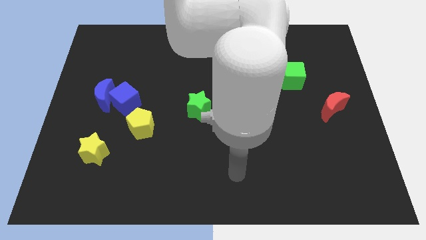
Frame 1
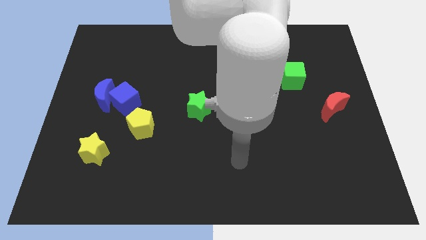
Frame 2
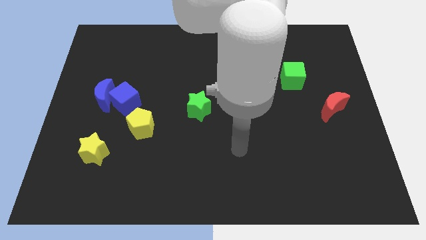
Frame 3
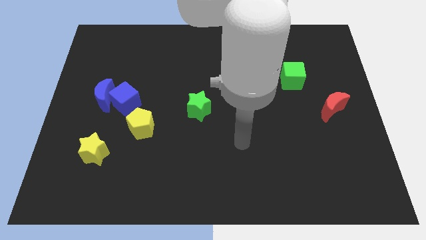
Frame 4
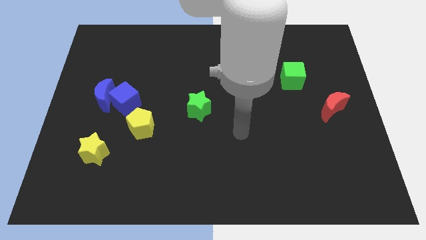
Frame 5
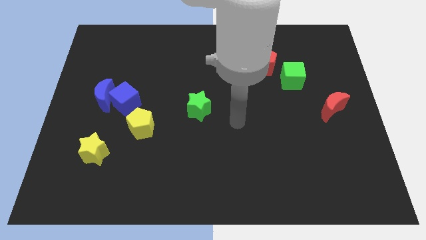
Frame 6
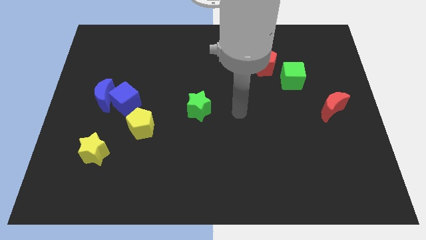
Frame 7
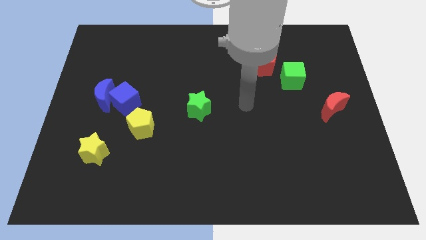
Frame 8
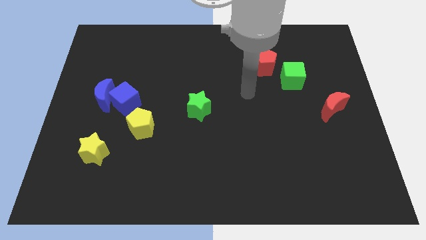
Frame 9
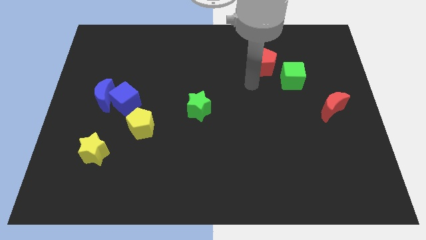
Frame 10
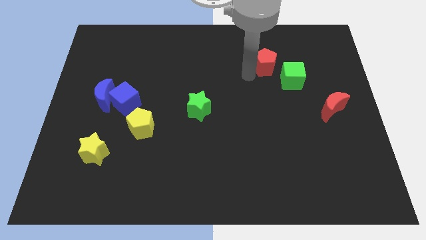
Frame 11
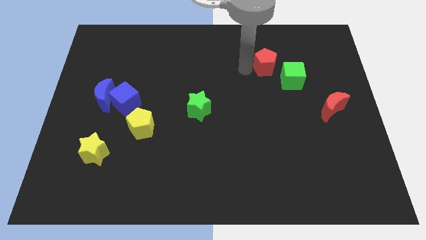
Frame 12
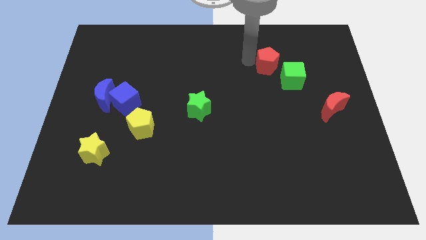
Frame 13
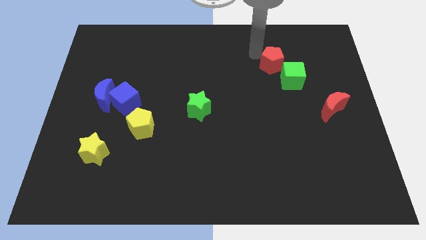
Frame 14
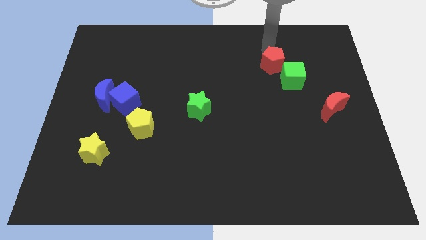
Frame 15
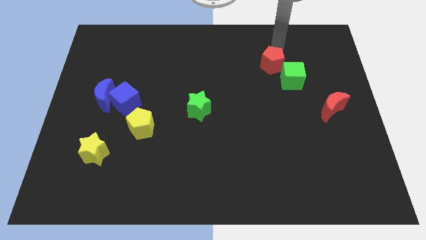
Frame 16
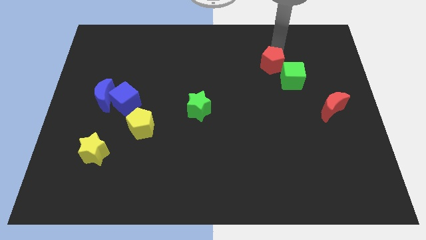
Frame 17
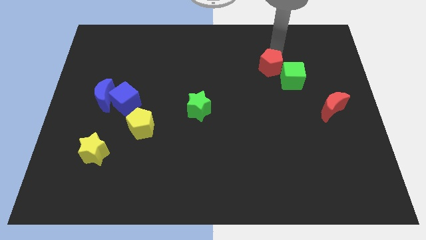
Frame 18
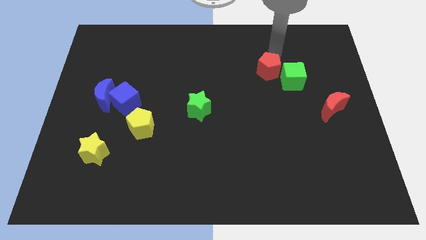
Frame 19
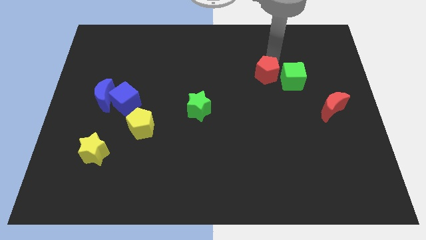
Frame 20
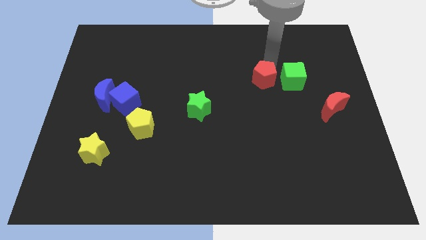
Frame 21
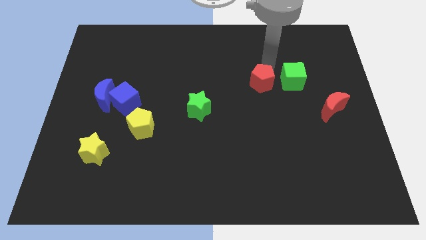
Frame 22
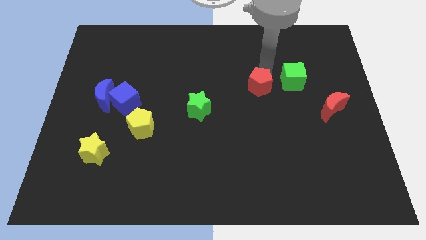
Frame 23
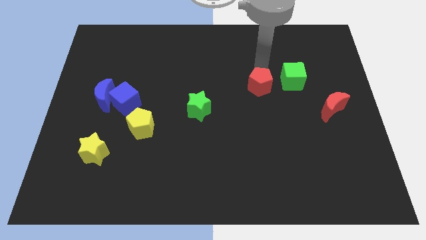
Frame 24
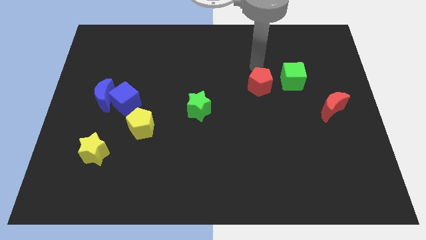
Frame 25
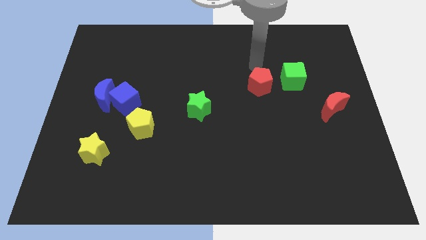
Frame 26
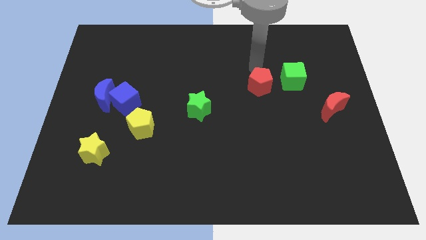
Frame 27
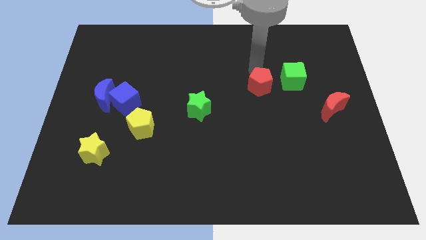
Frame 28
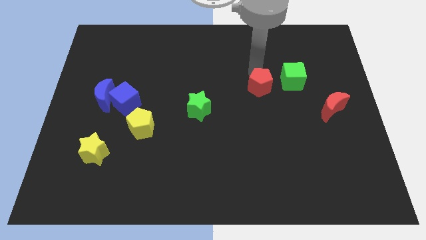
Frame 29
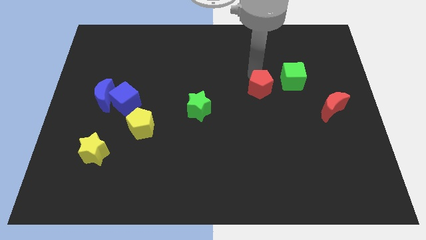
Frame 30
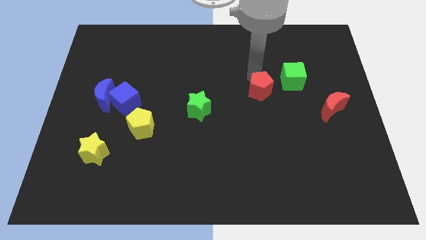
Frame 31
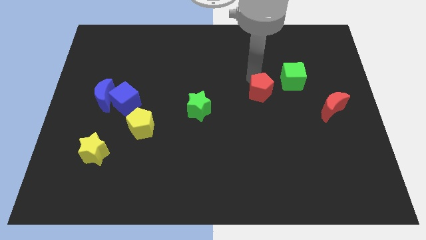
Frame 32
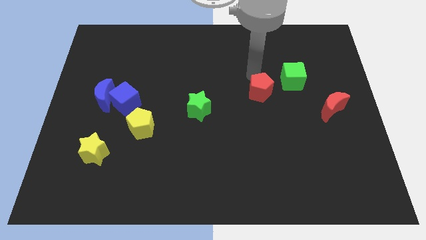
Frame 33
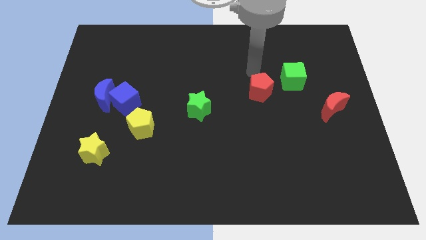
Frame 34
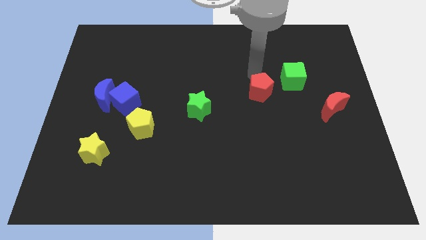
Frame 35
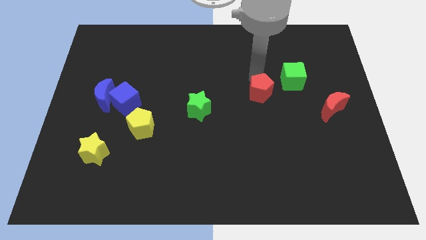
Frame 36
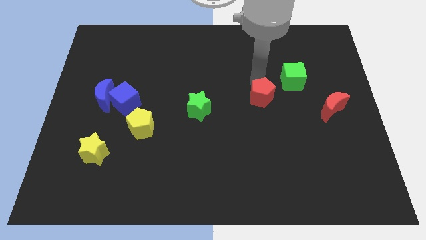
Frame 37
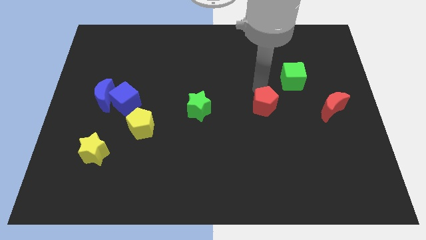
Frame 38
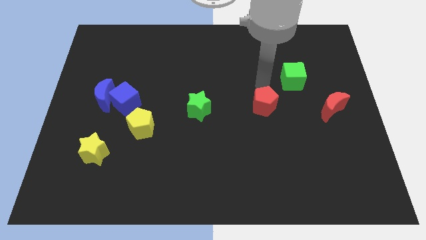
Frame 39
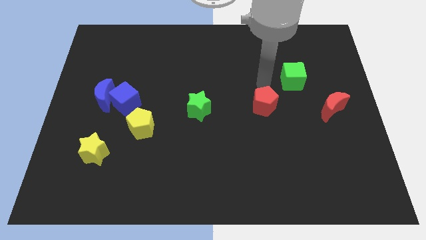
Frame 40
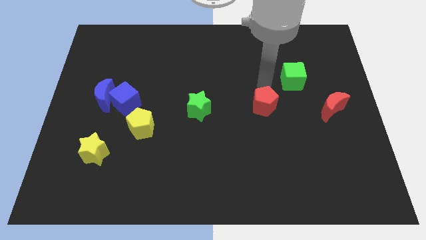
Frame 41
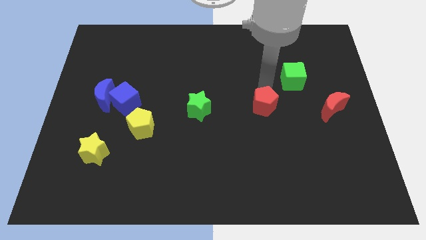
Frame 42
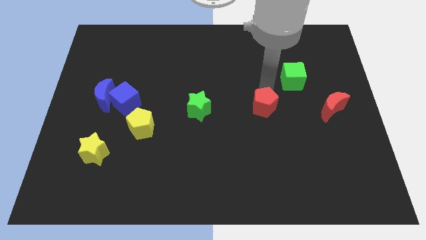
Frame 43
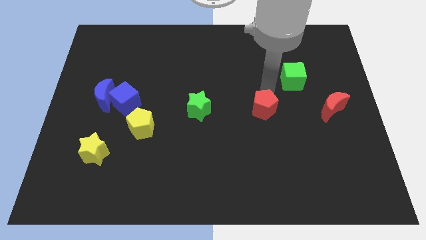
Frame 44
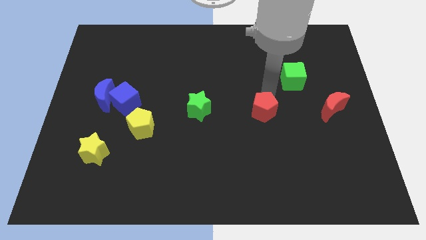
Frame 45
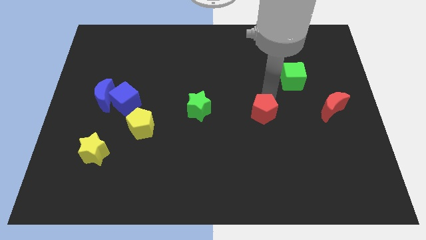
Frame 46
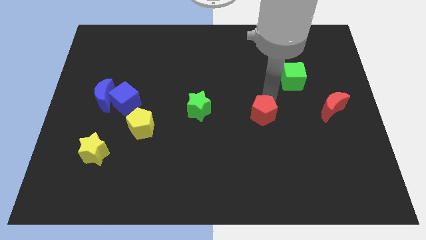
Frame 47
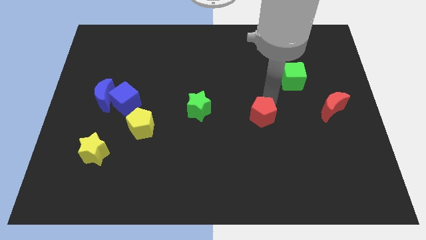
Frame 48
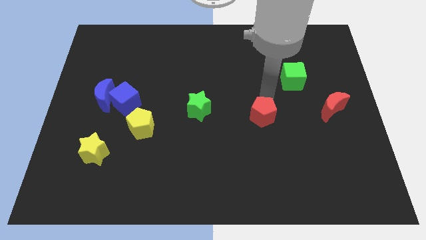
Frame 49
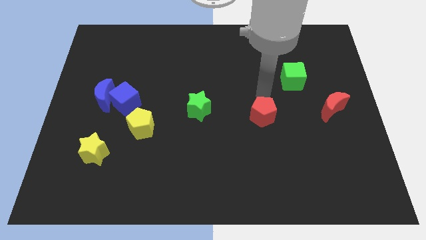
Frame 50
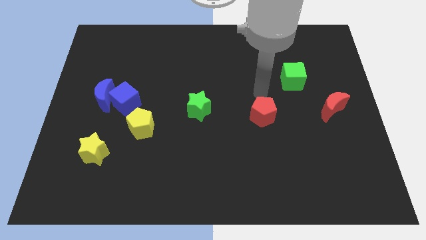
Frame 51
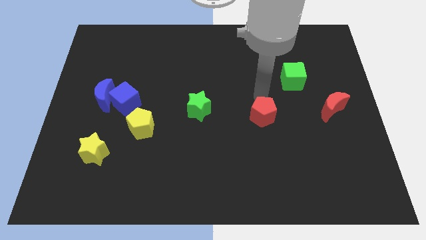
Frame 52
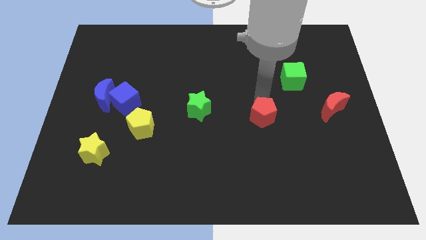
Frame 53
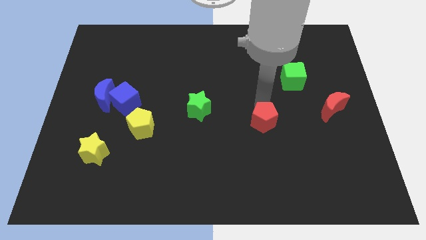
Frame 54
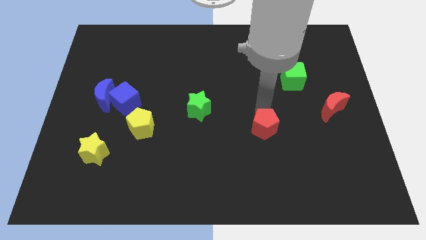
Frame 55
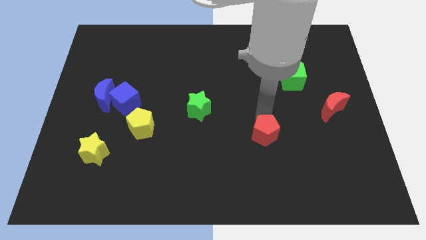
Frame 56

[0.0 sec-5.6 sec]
slide the red pentagon down

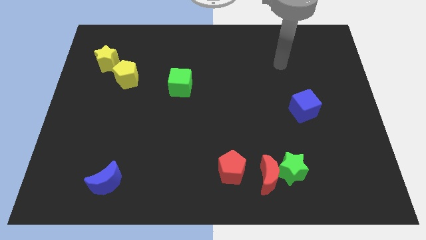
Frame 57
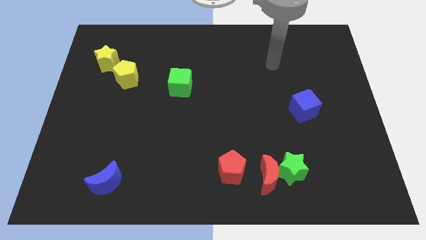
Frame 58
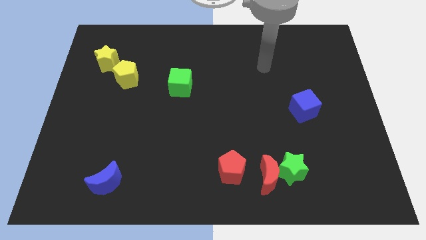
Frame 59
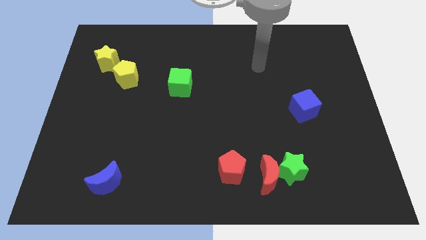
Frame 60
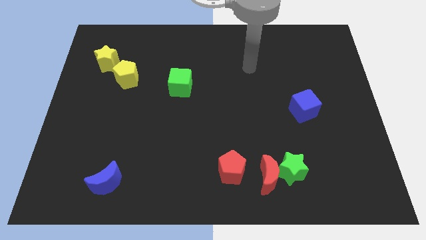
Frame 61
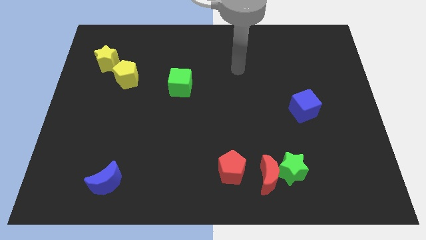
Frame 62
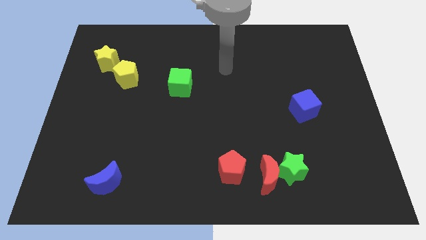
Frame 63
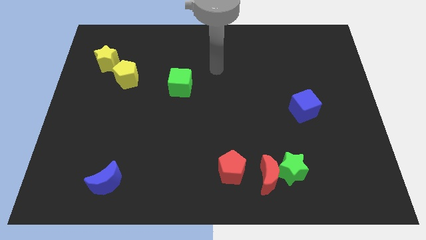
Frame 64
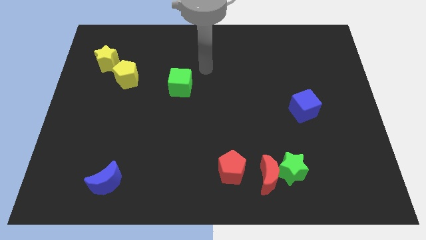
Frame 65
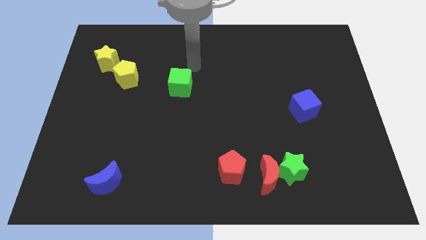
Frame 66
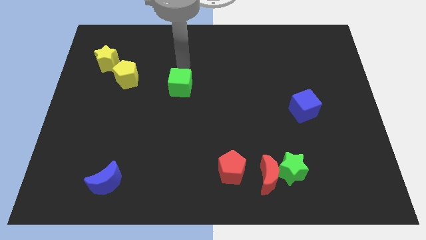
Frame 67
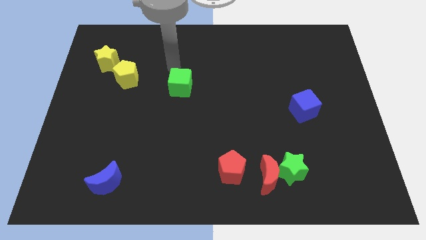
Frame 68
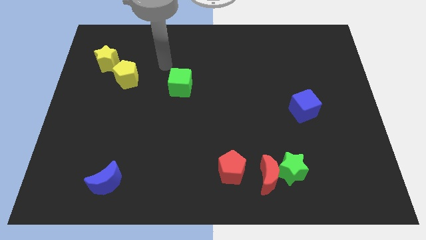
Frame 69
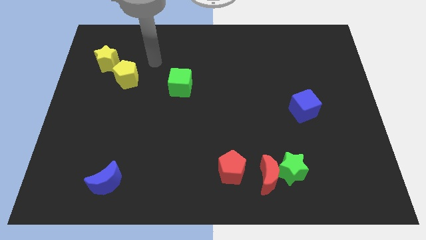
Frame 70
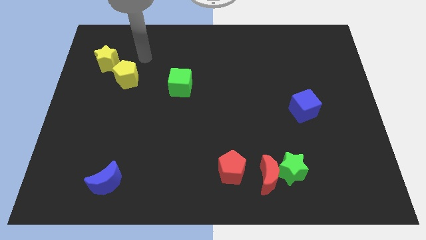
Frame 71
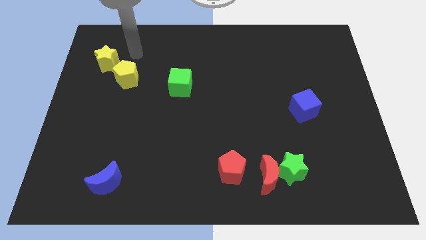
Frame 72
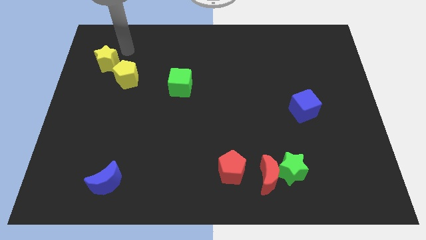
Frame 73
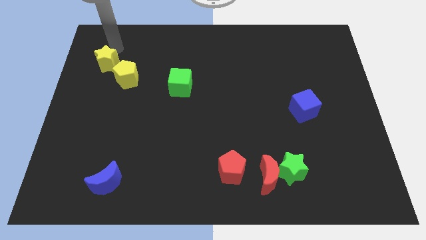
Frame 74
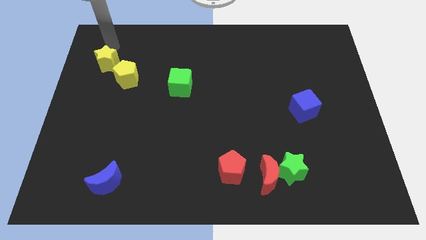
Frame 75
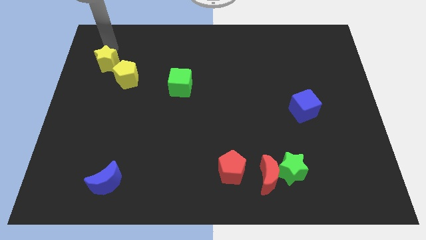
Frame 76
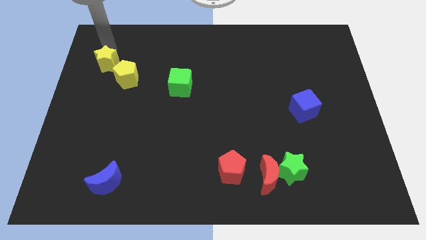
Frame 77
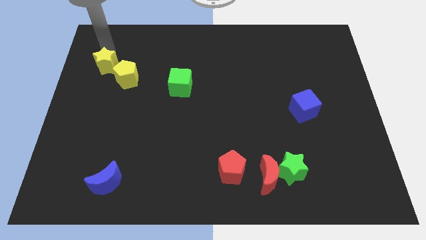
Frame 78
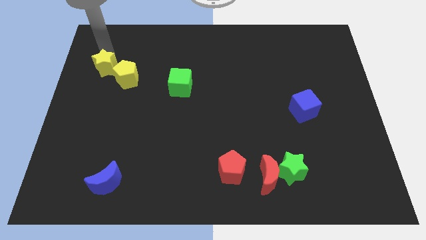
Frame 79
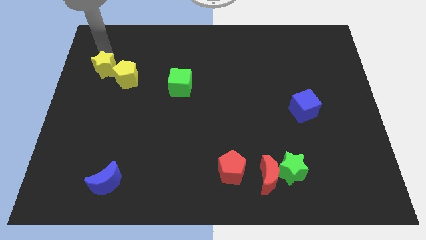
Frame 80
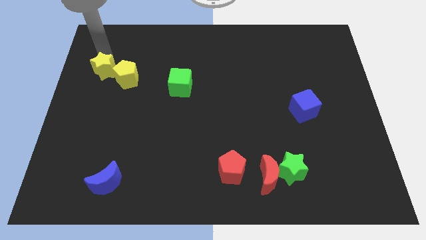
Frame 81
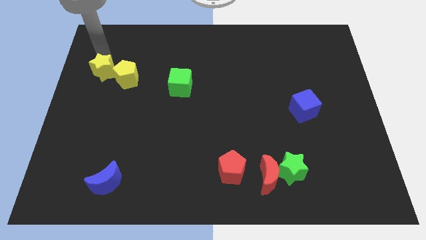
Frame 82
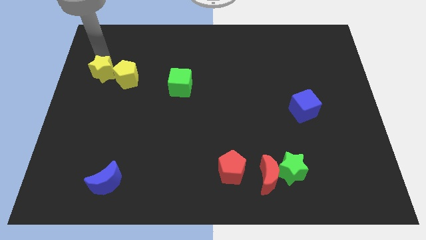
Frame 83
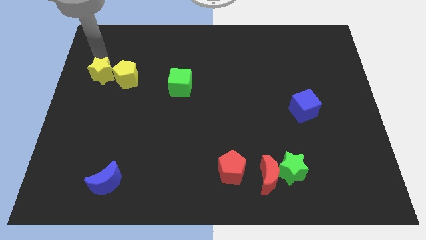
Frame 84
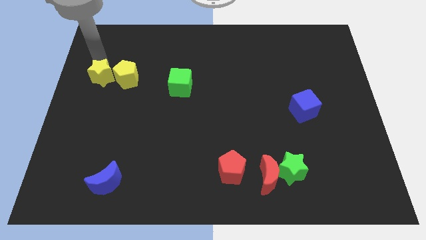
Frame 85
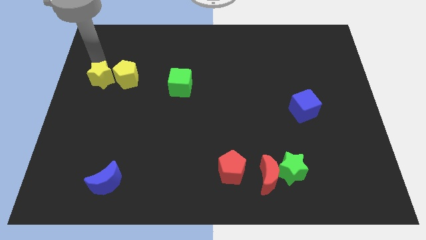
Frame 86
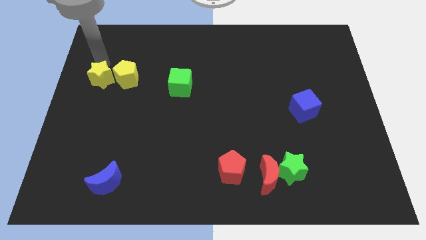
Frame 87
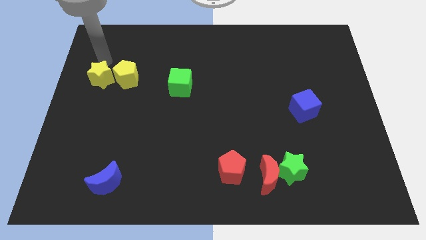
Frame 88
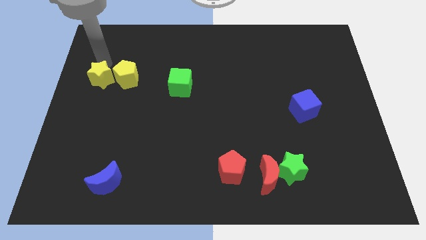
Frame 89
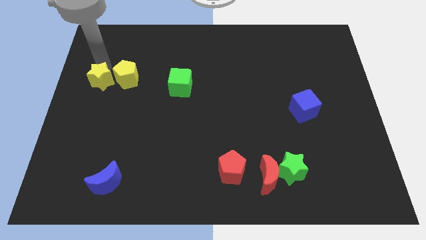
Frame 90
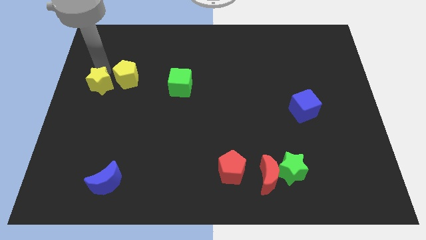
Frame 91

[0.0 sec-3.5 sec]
slide the yellow star a bit down
